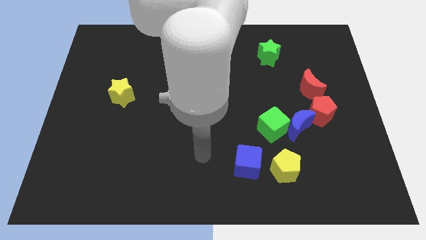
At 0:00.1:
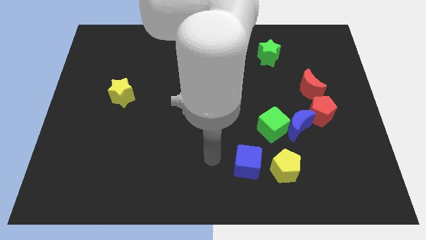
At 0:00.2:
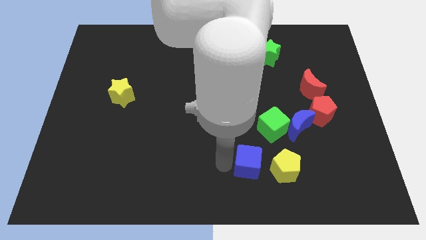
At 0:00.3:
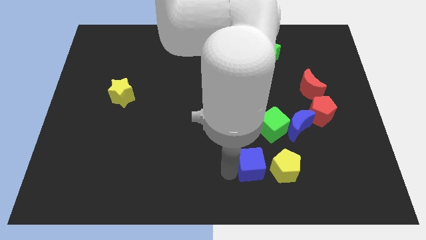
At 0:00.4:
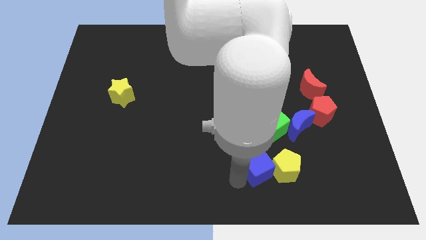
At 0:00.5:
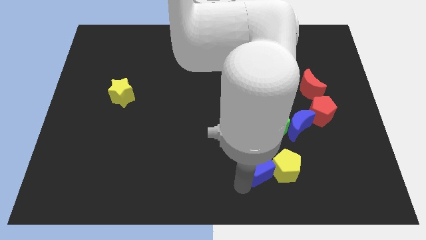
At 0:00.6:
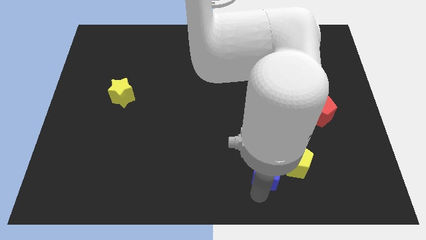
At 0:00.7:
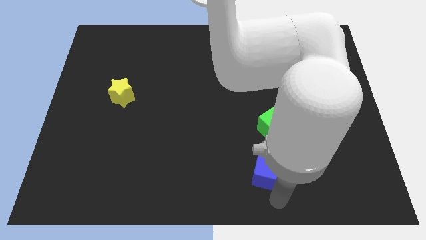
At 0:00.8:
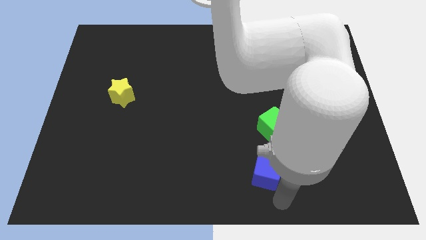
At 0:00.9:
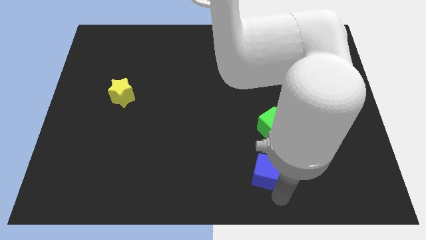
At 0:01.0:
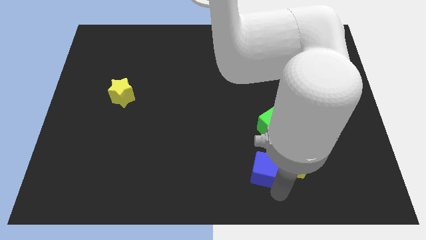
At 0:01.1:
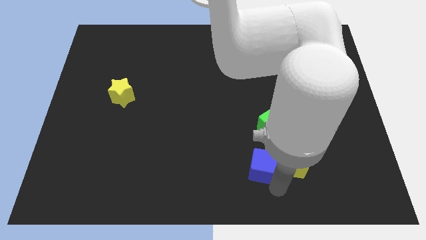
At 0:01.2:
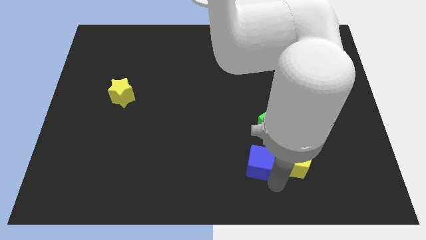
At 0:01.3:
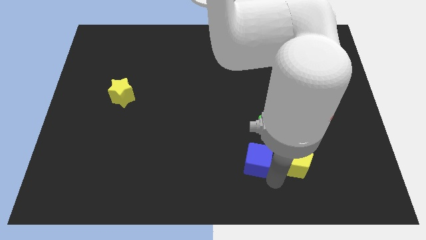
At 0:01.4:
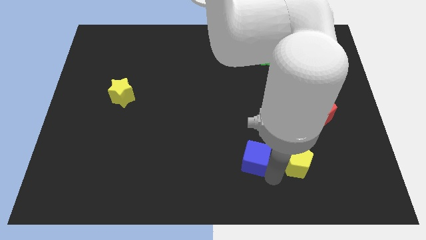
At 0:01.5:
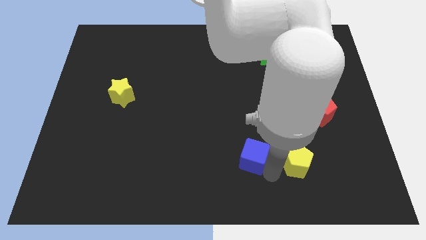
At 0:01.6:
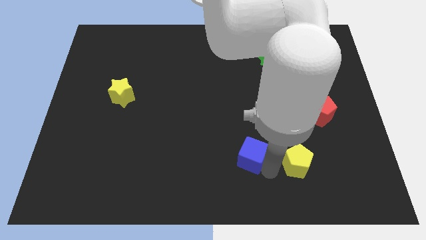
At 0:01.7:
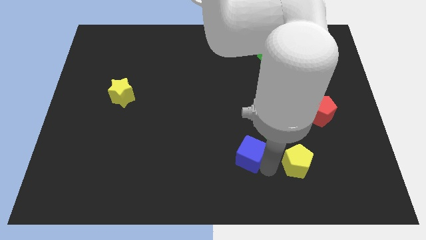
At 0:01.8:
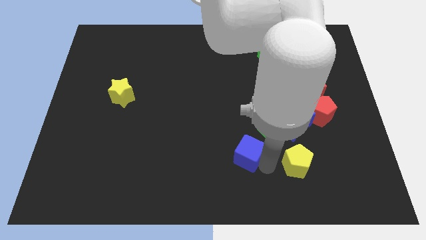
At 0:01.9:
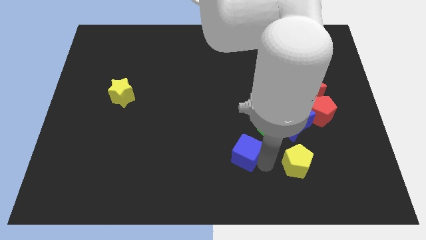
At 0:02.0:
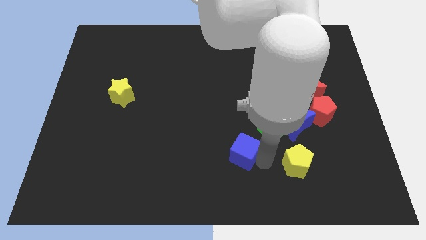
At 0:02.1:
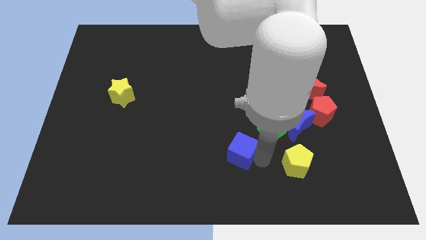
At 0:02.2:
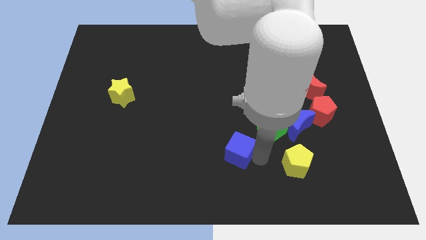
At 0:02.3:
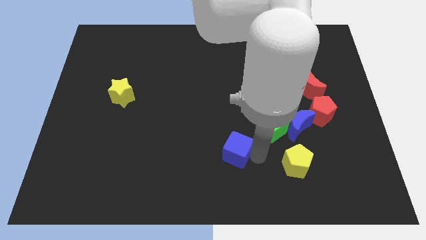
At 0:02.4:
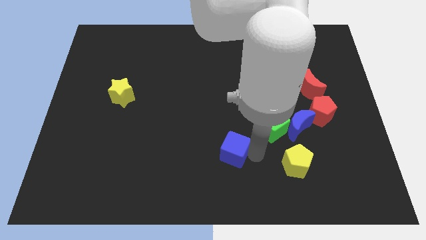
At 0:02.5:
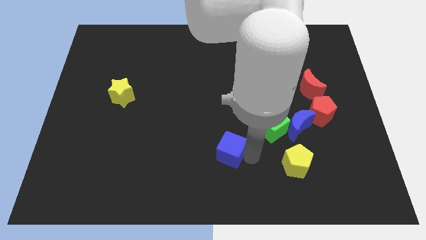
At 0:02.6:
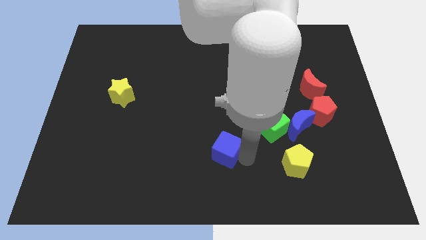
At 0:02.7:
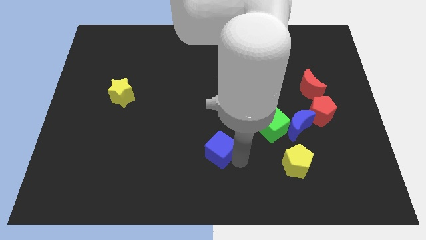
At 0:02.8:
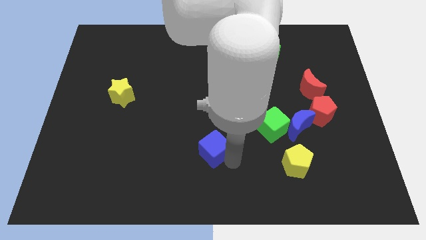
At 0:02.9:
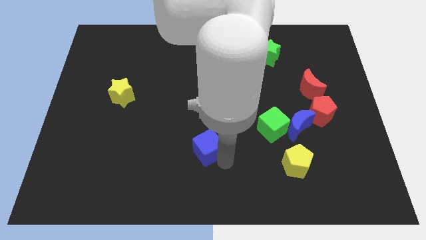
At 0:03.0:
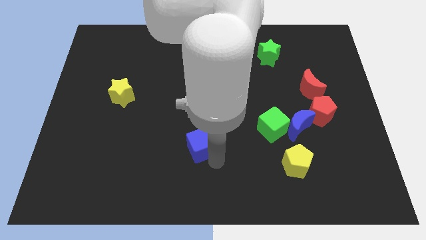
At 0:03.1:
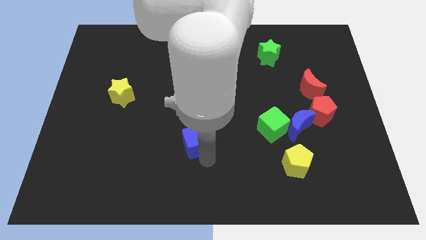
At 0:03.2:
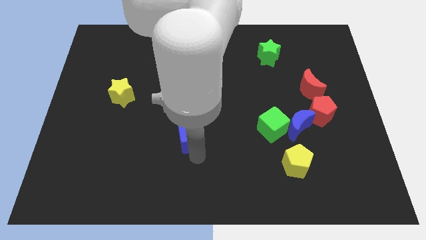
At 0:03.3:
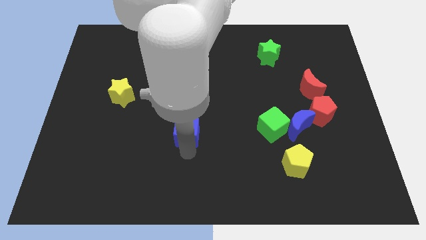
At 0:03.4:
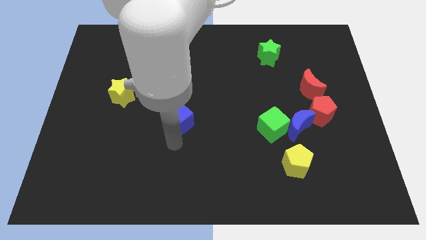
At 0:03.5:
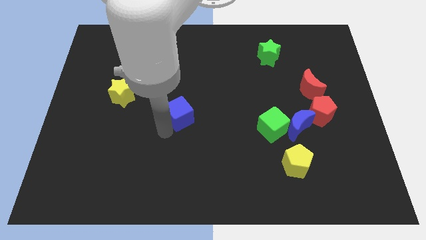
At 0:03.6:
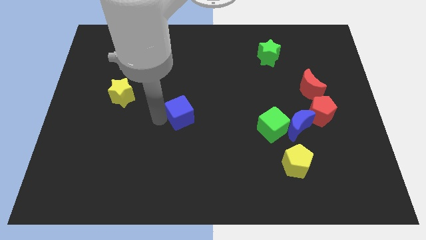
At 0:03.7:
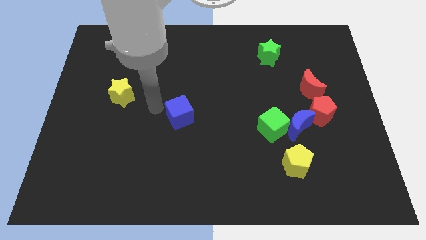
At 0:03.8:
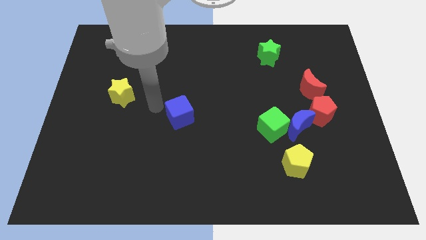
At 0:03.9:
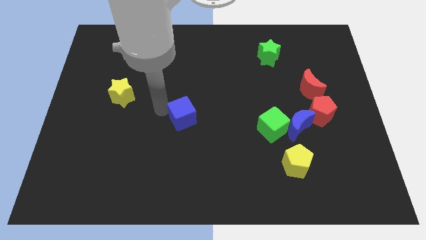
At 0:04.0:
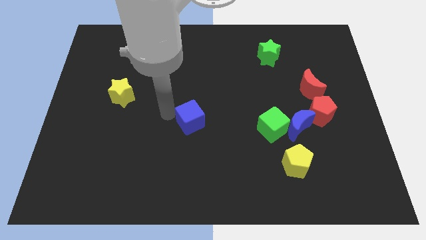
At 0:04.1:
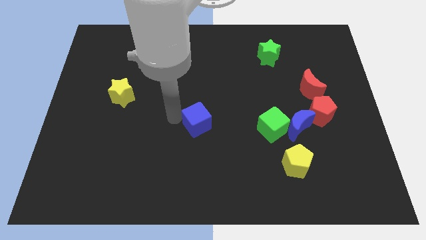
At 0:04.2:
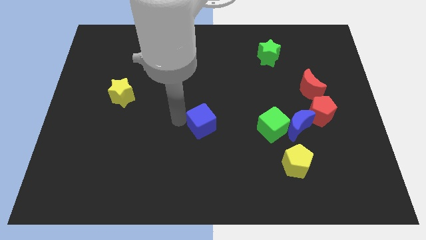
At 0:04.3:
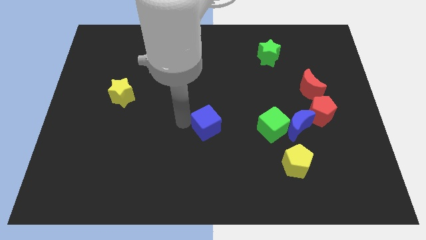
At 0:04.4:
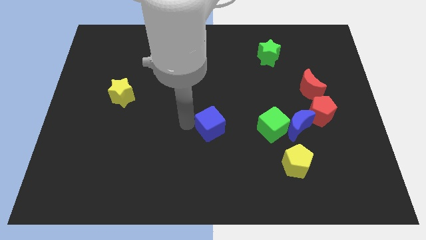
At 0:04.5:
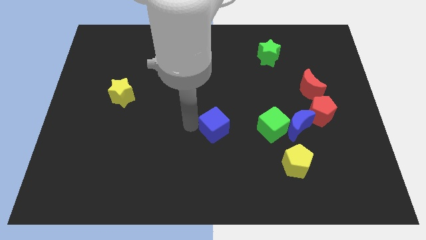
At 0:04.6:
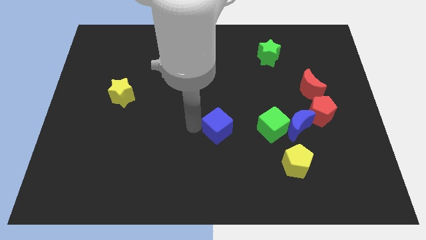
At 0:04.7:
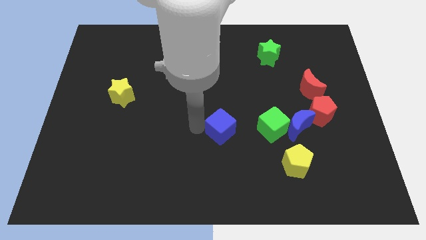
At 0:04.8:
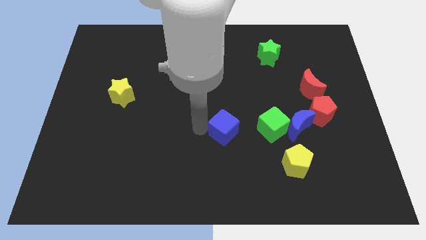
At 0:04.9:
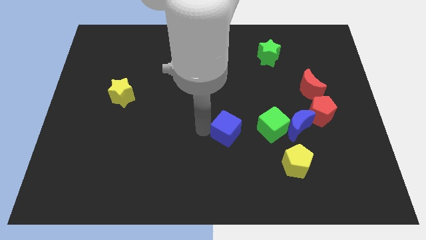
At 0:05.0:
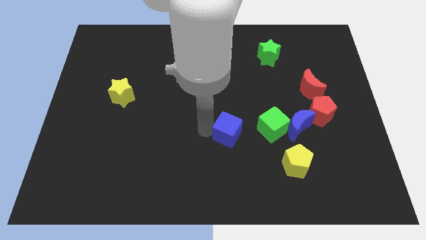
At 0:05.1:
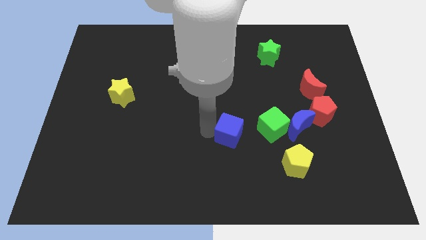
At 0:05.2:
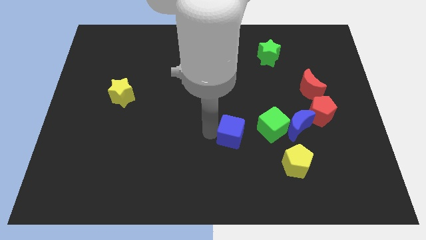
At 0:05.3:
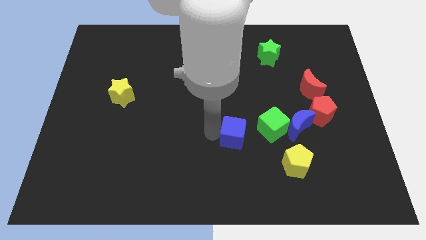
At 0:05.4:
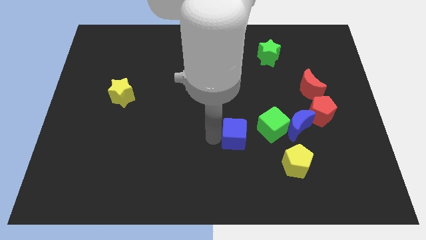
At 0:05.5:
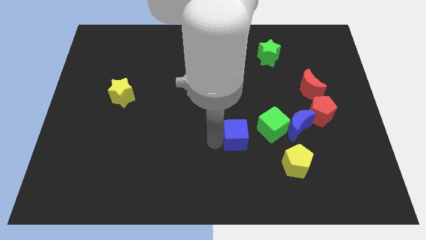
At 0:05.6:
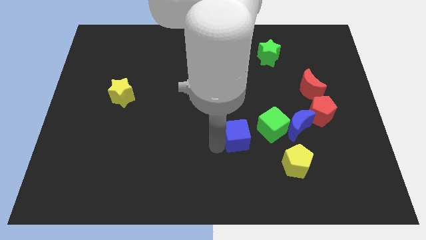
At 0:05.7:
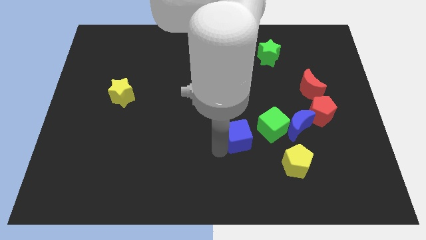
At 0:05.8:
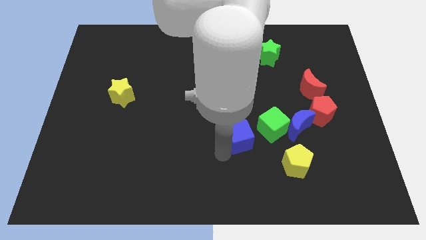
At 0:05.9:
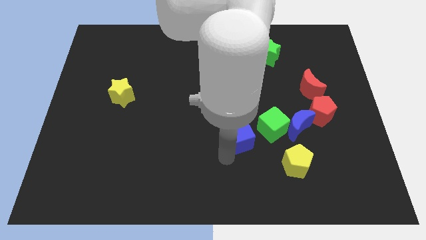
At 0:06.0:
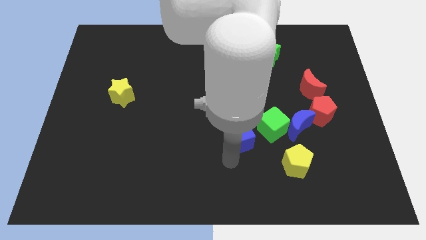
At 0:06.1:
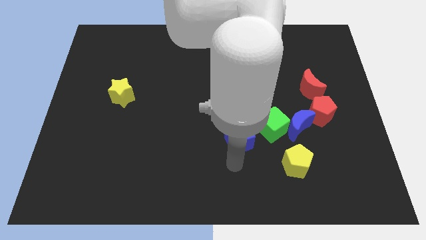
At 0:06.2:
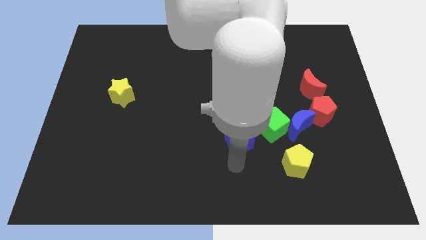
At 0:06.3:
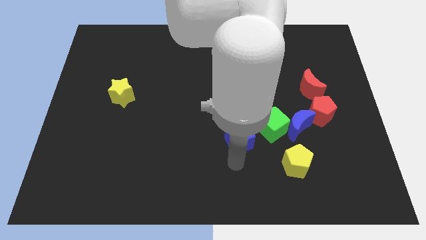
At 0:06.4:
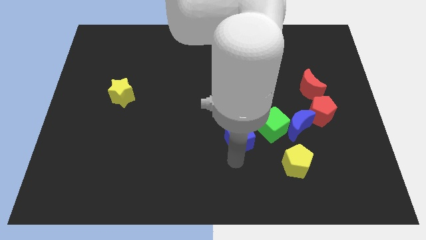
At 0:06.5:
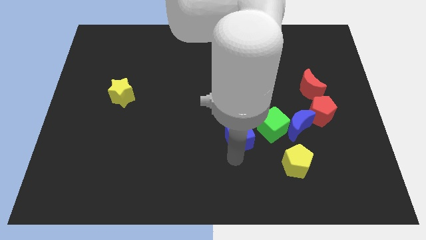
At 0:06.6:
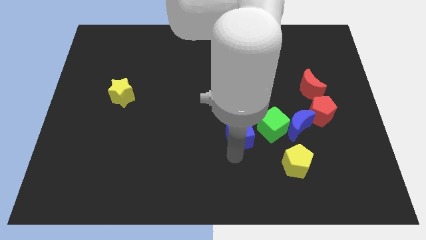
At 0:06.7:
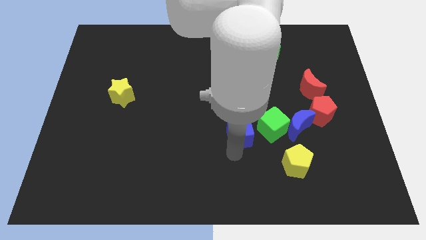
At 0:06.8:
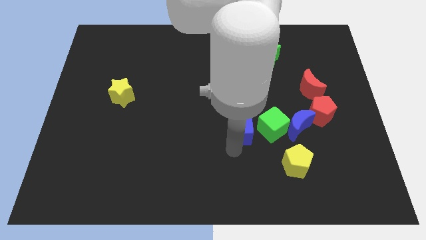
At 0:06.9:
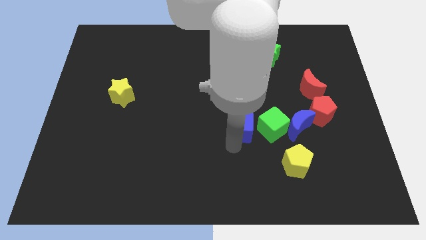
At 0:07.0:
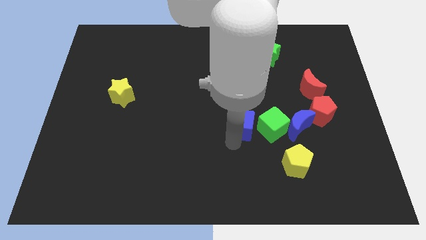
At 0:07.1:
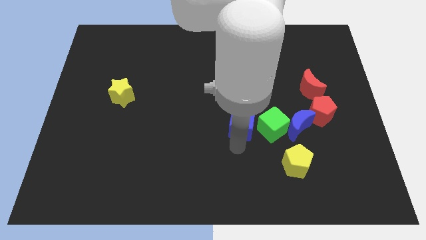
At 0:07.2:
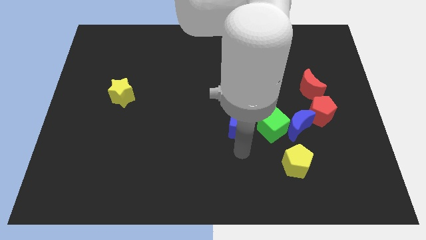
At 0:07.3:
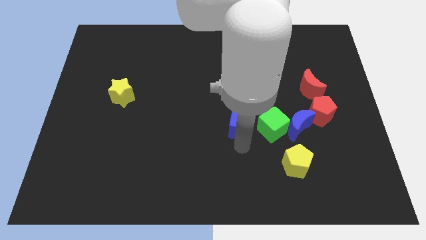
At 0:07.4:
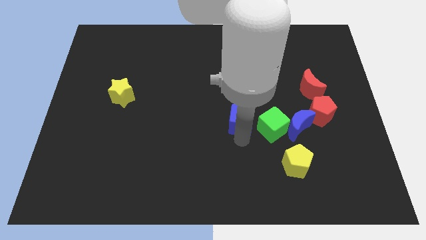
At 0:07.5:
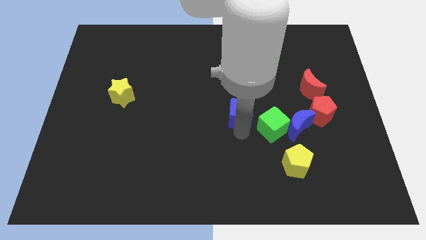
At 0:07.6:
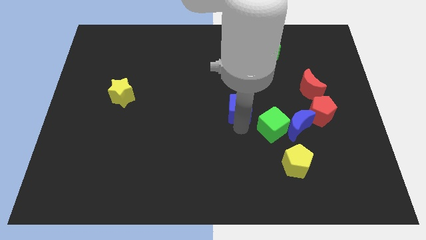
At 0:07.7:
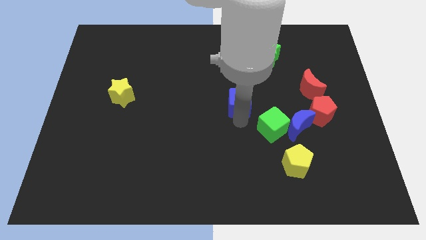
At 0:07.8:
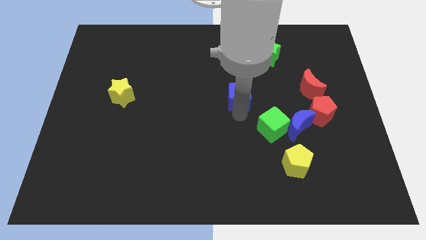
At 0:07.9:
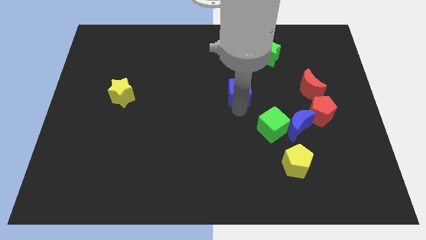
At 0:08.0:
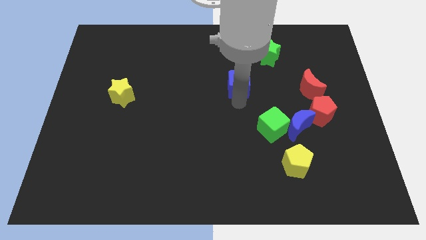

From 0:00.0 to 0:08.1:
move the blue cube upwards

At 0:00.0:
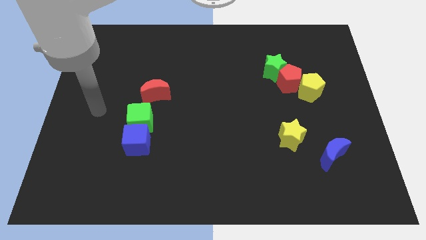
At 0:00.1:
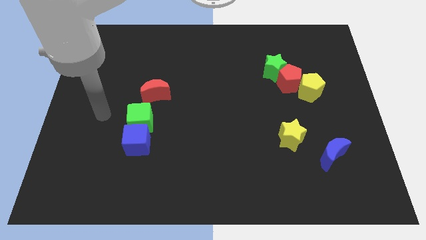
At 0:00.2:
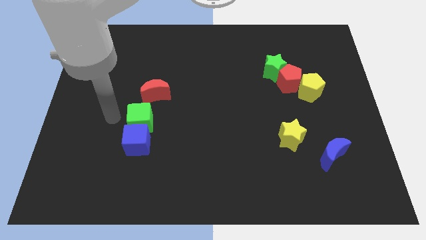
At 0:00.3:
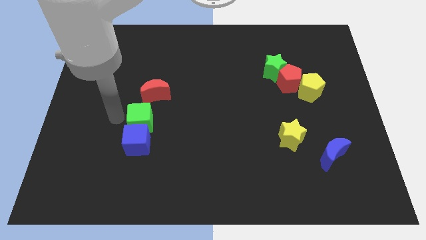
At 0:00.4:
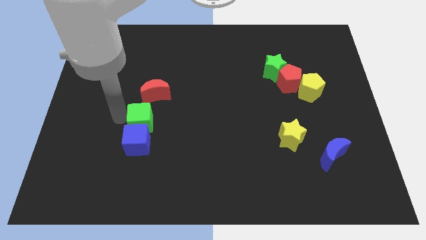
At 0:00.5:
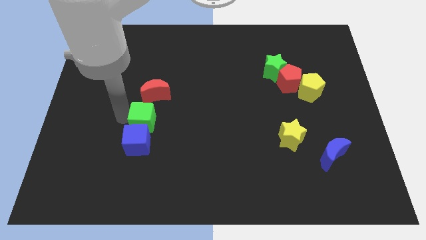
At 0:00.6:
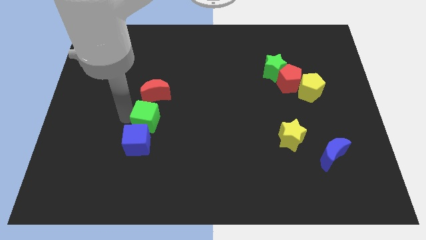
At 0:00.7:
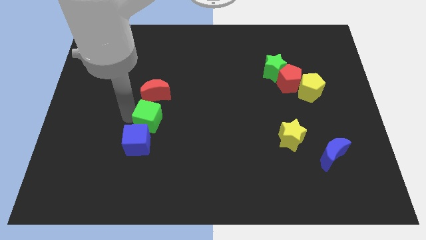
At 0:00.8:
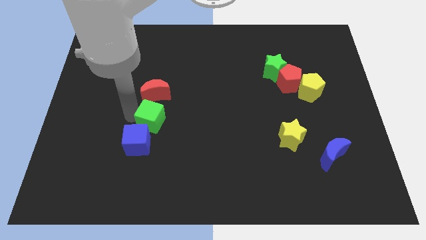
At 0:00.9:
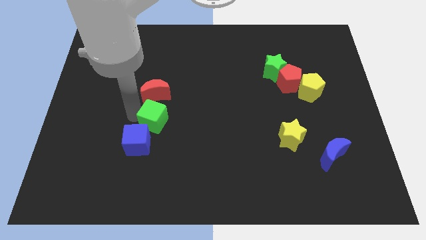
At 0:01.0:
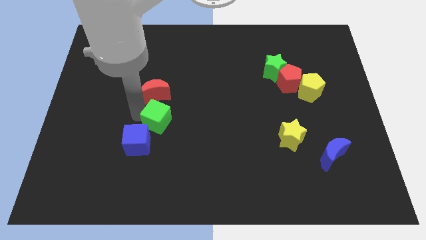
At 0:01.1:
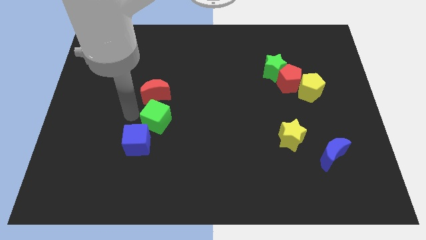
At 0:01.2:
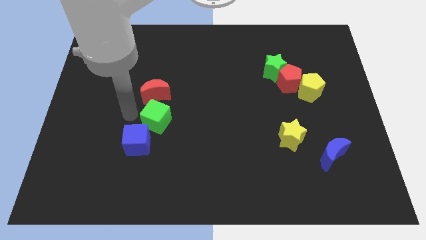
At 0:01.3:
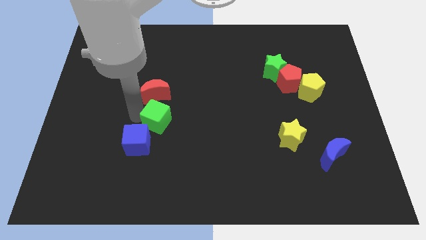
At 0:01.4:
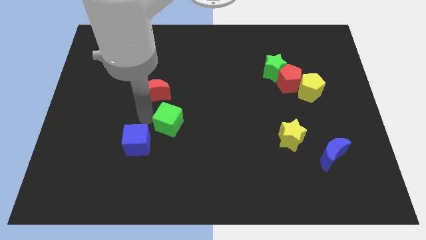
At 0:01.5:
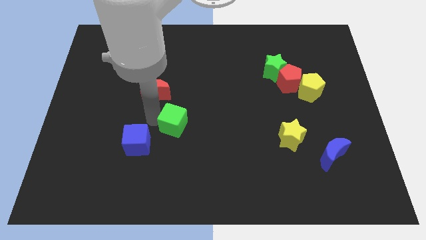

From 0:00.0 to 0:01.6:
push the green cube to the right a bit
